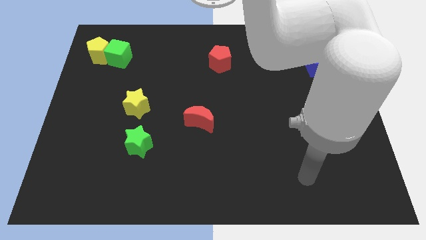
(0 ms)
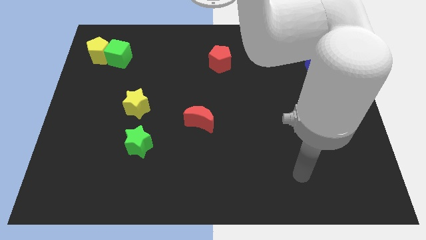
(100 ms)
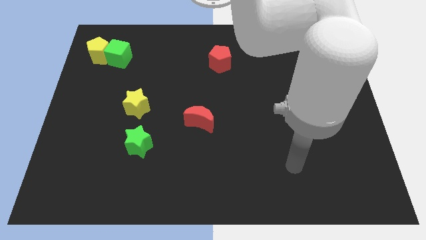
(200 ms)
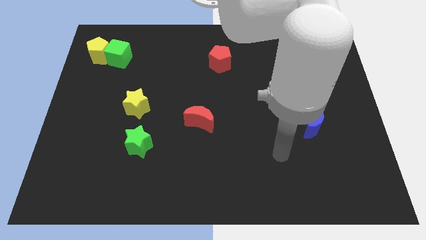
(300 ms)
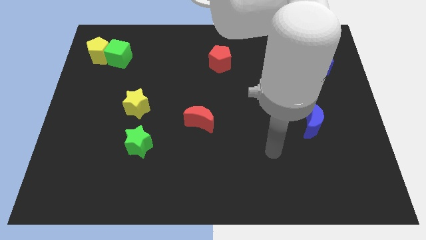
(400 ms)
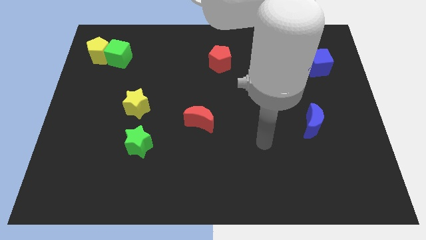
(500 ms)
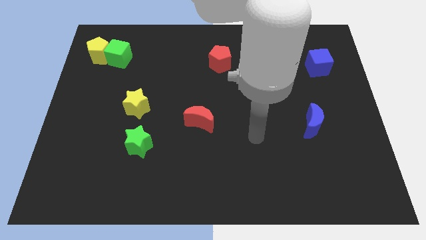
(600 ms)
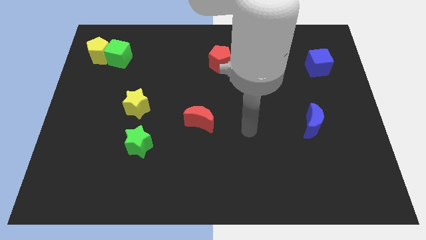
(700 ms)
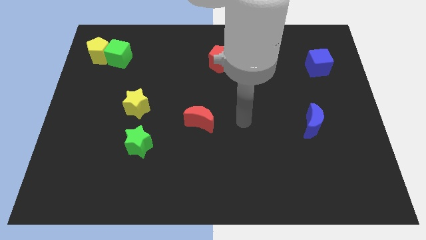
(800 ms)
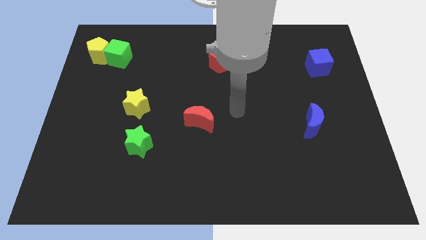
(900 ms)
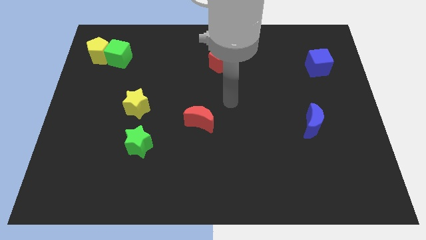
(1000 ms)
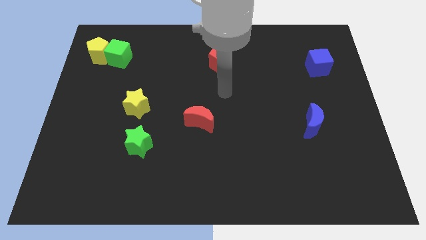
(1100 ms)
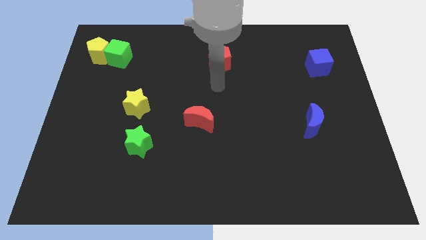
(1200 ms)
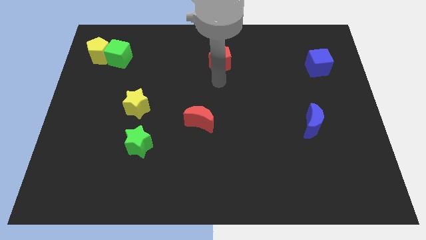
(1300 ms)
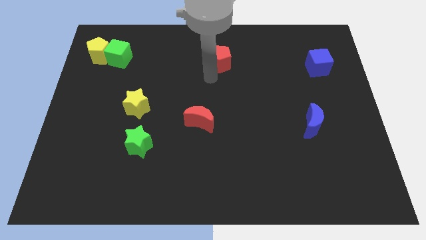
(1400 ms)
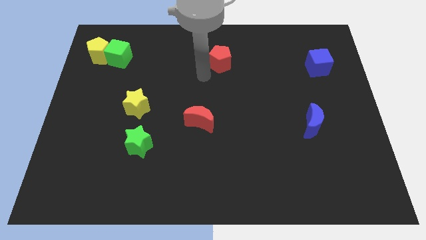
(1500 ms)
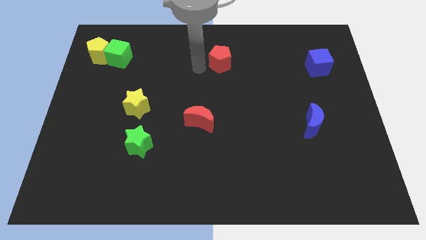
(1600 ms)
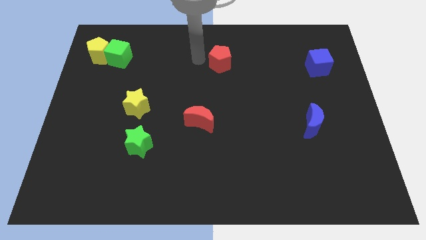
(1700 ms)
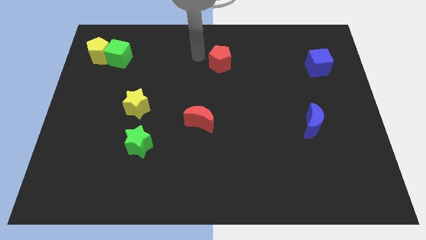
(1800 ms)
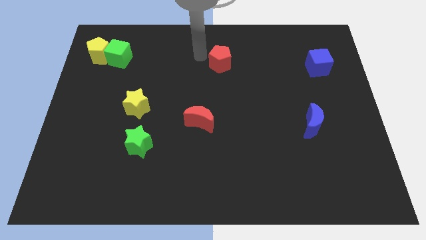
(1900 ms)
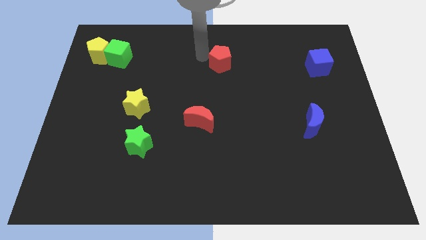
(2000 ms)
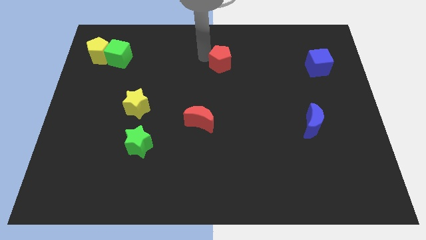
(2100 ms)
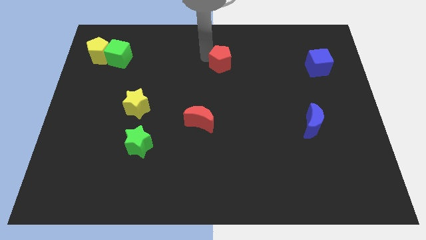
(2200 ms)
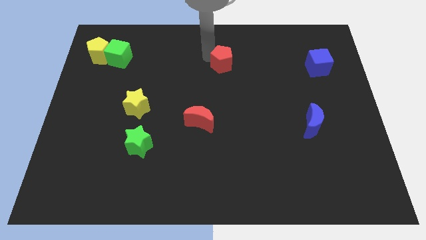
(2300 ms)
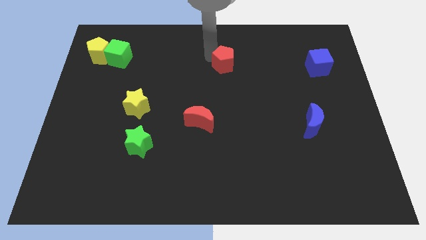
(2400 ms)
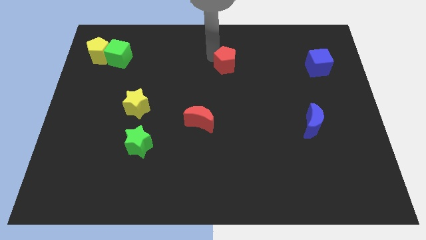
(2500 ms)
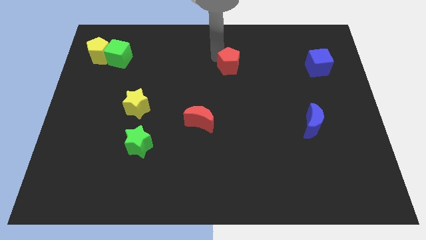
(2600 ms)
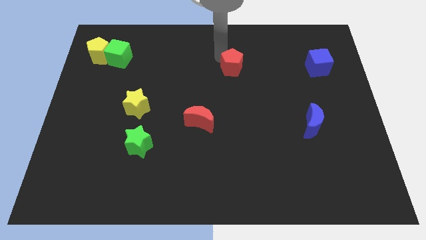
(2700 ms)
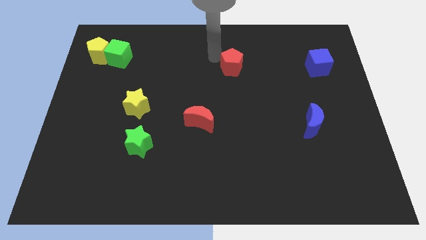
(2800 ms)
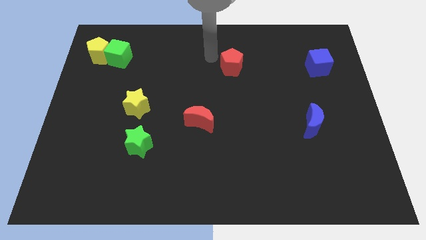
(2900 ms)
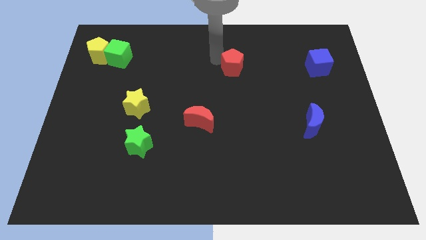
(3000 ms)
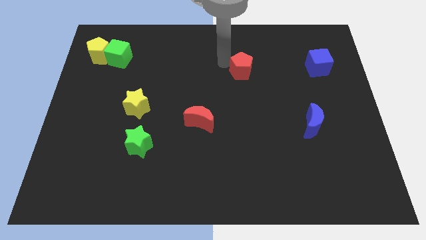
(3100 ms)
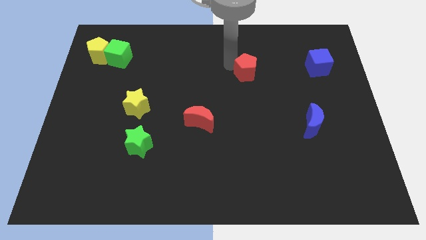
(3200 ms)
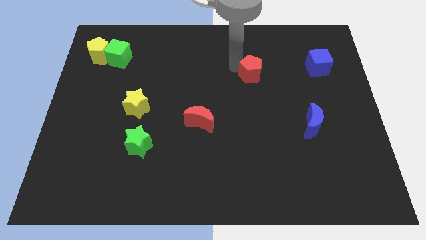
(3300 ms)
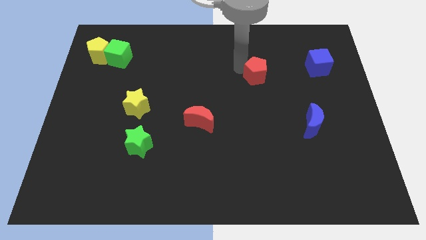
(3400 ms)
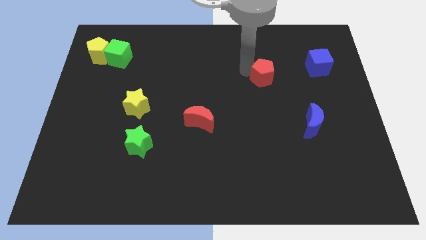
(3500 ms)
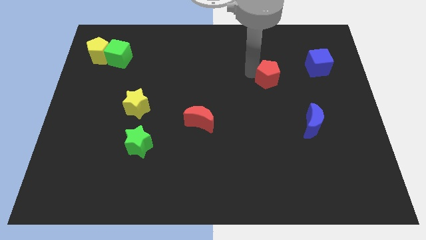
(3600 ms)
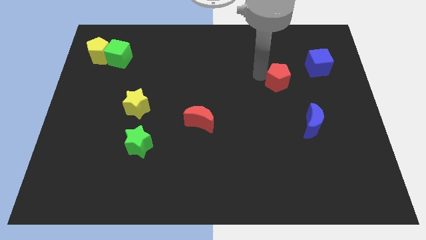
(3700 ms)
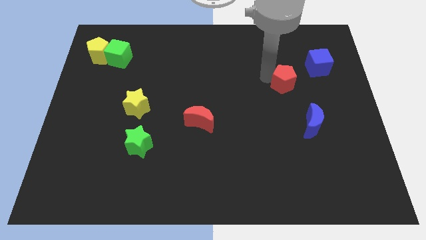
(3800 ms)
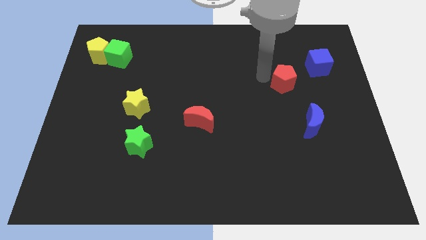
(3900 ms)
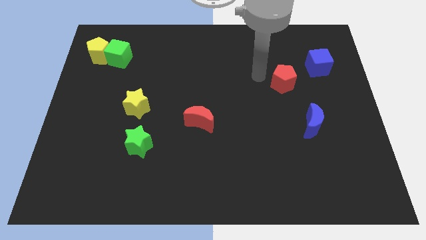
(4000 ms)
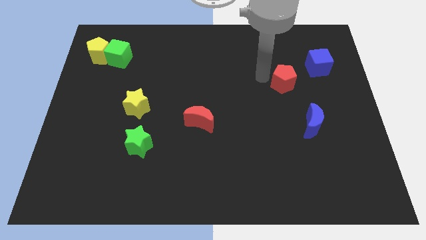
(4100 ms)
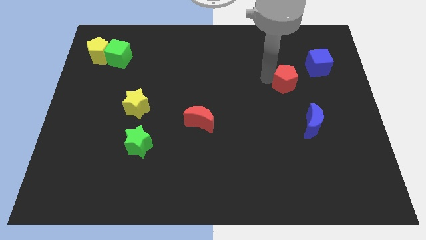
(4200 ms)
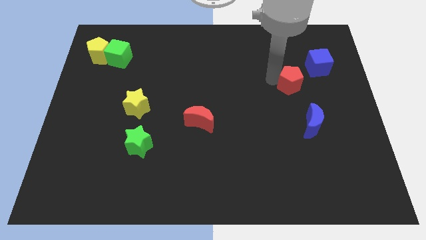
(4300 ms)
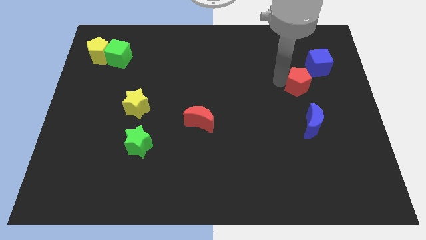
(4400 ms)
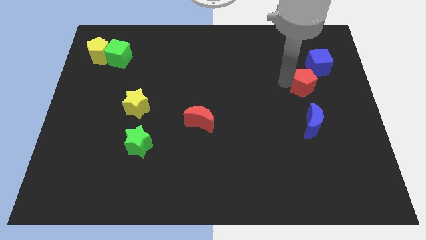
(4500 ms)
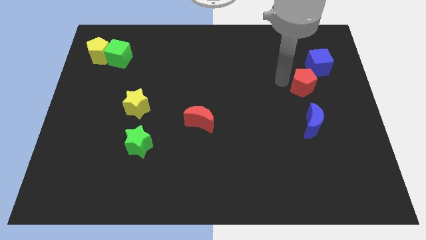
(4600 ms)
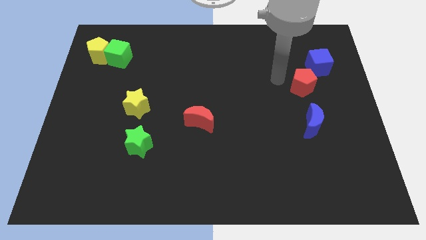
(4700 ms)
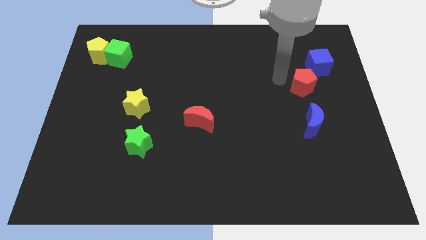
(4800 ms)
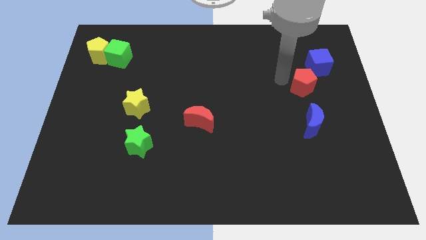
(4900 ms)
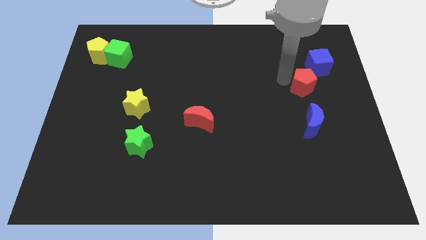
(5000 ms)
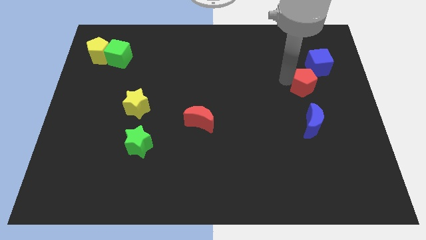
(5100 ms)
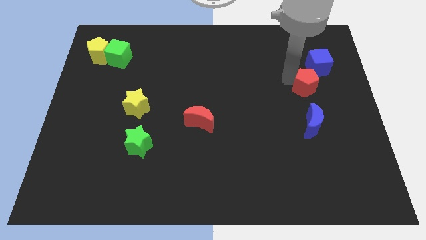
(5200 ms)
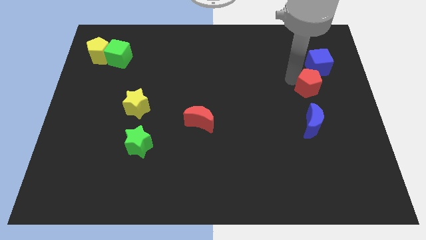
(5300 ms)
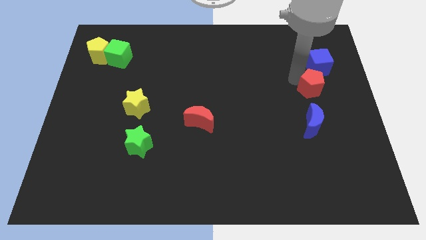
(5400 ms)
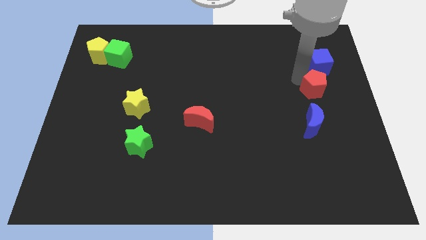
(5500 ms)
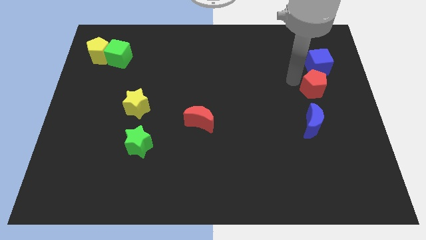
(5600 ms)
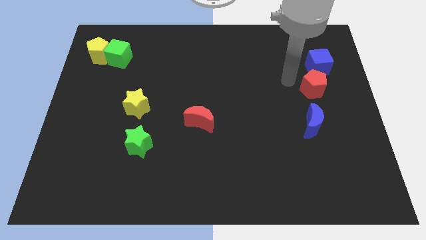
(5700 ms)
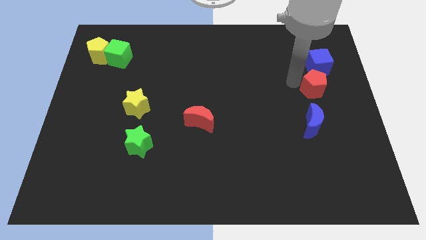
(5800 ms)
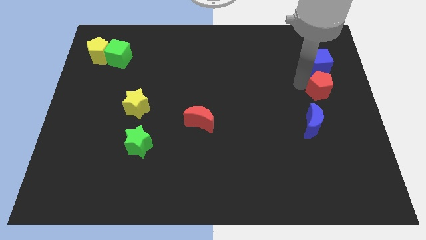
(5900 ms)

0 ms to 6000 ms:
push the red pentagon to the right side of the board

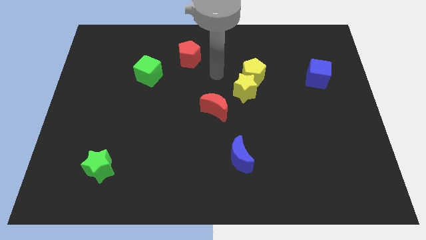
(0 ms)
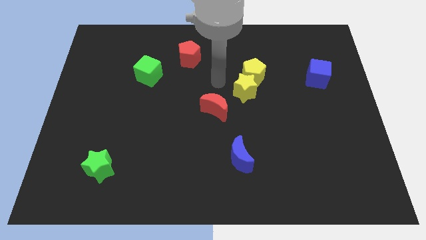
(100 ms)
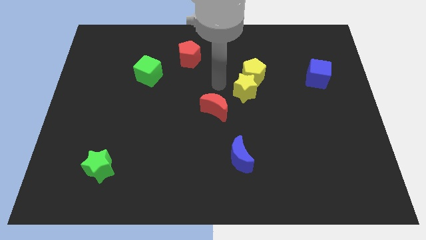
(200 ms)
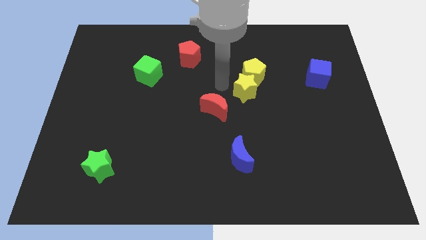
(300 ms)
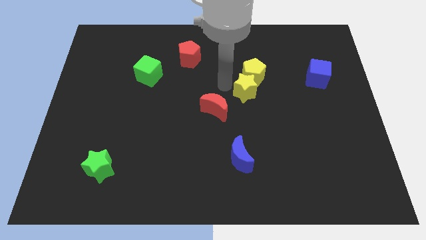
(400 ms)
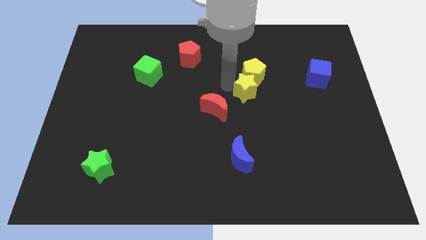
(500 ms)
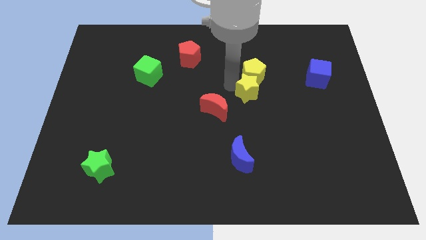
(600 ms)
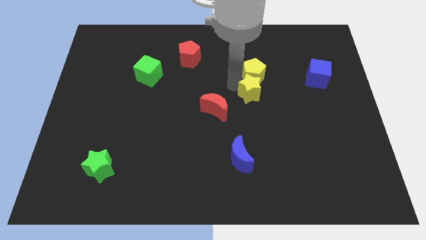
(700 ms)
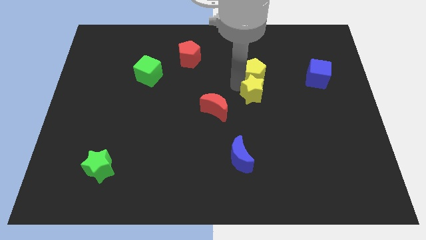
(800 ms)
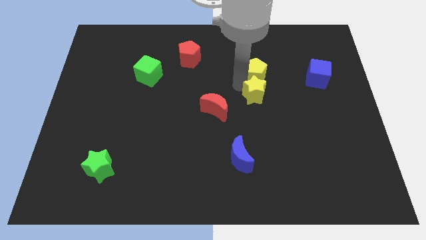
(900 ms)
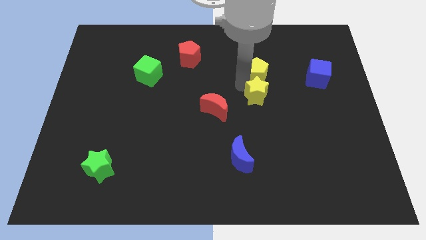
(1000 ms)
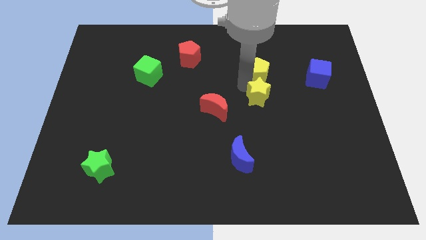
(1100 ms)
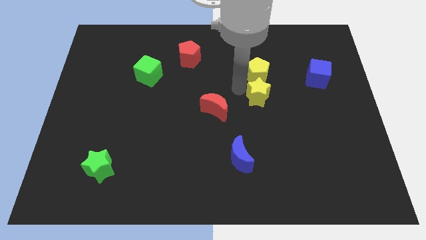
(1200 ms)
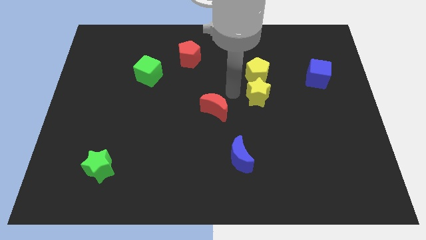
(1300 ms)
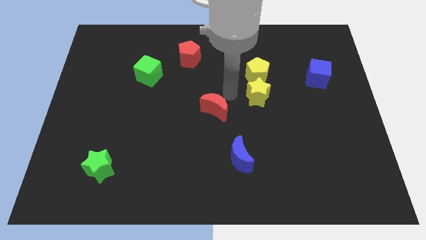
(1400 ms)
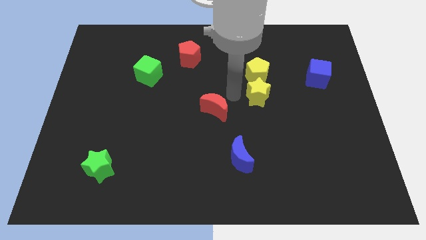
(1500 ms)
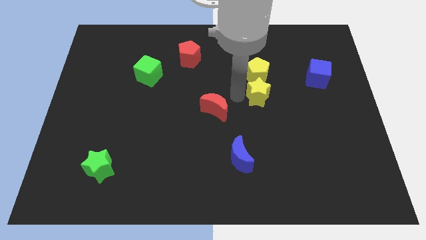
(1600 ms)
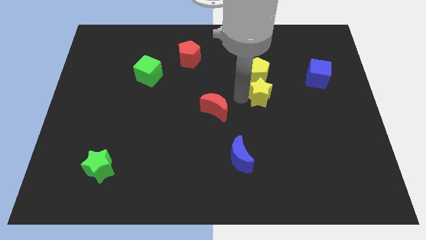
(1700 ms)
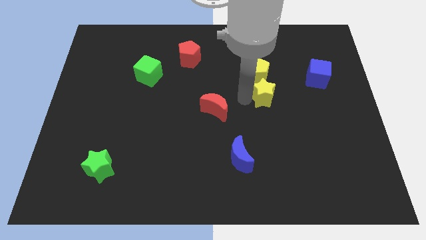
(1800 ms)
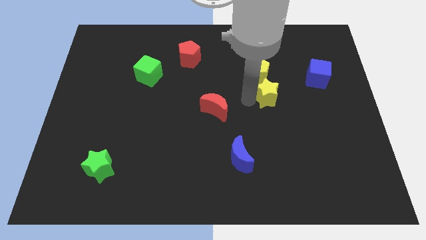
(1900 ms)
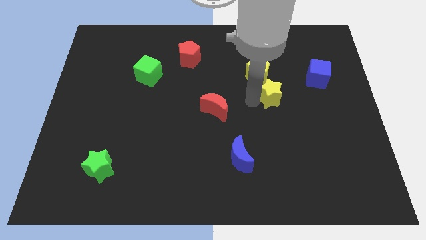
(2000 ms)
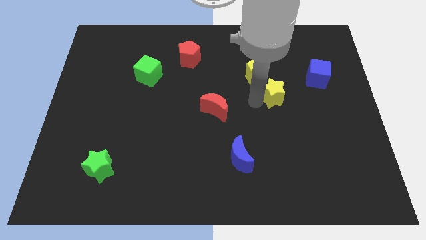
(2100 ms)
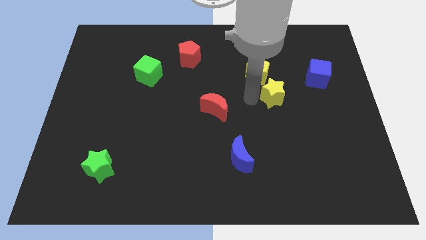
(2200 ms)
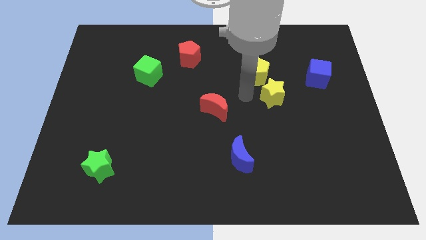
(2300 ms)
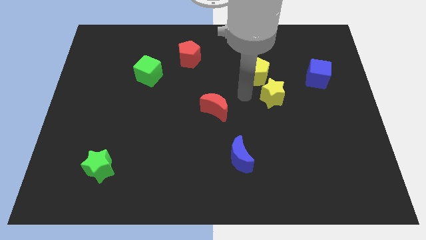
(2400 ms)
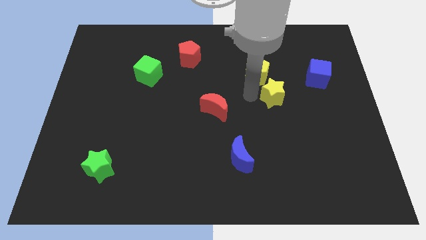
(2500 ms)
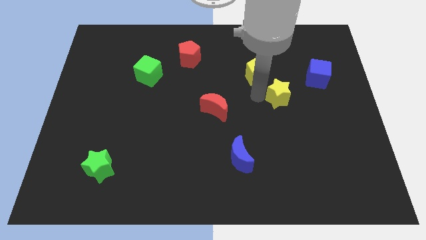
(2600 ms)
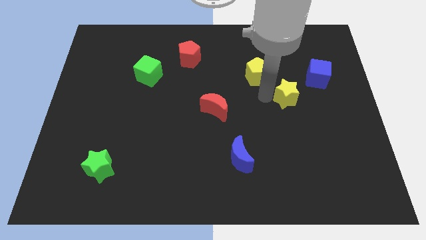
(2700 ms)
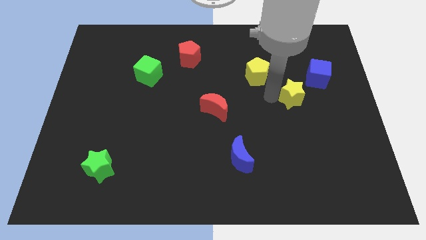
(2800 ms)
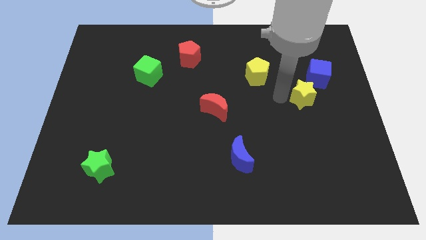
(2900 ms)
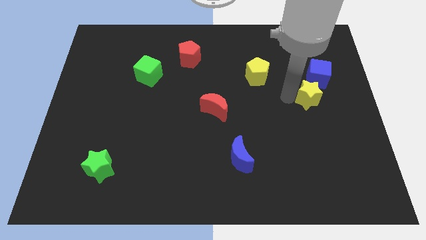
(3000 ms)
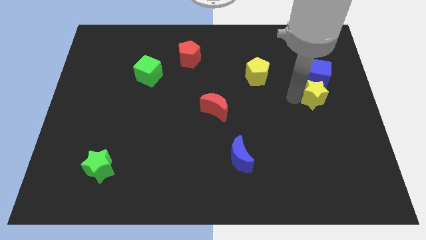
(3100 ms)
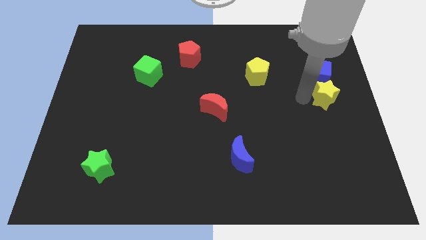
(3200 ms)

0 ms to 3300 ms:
push the yellow star to the right side
